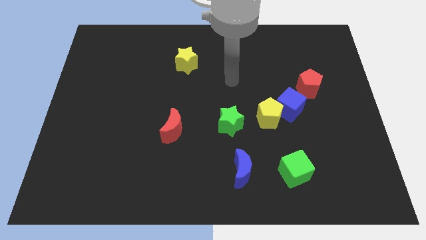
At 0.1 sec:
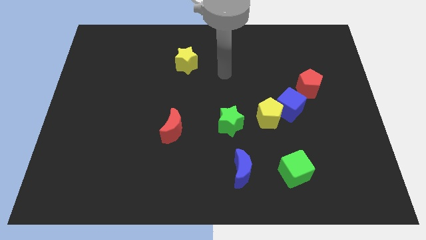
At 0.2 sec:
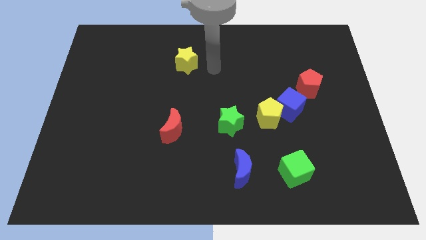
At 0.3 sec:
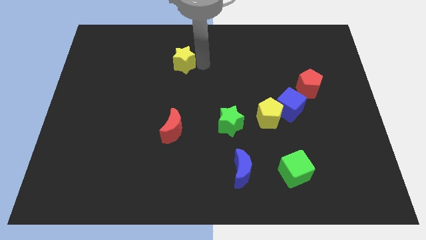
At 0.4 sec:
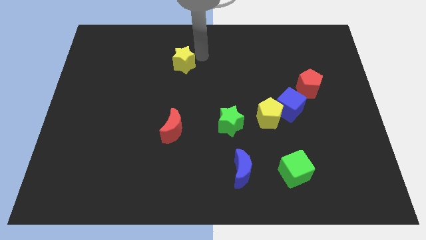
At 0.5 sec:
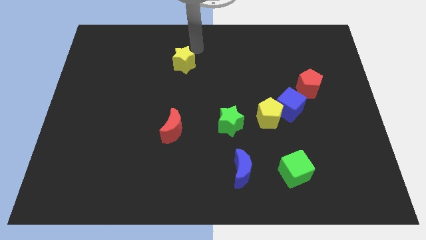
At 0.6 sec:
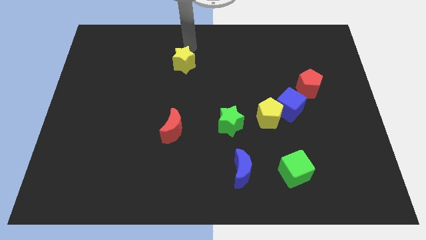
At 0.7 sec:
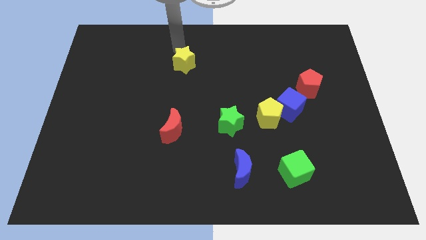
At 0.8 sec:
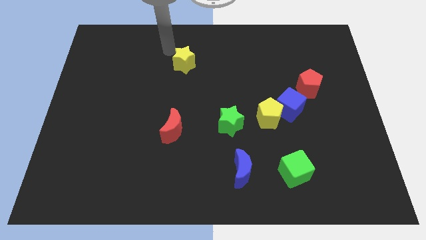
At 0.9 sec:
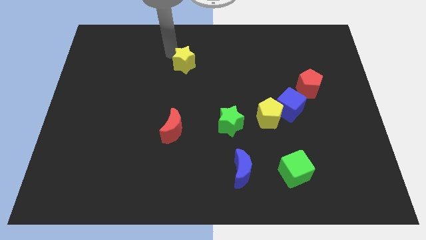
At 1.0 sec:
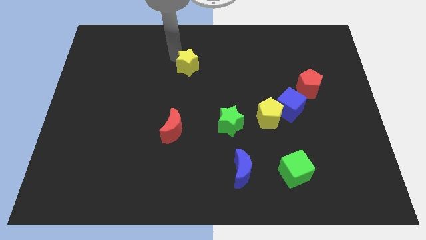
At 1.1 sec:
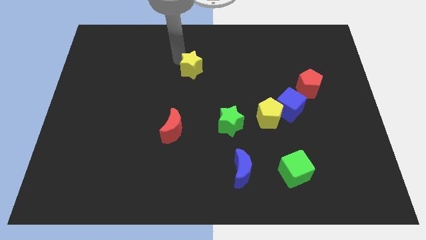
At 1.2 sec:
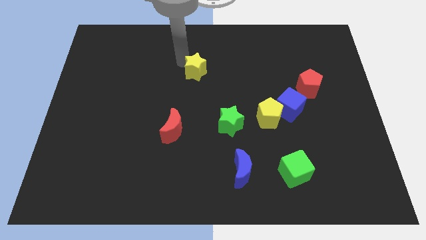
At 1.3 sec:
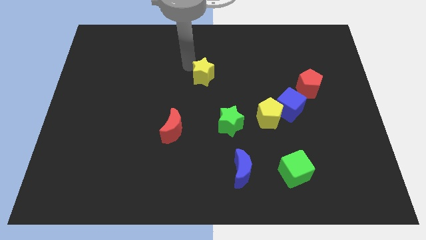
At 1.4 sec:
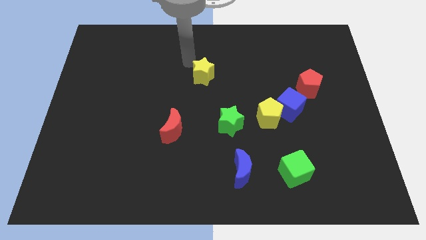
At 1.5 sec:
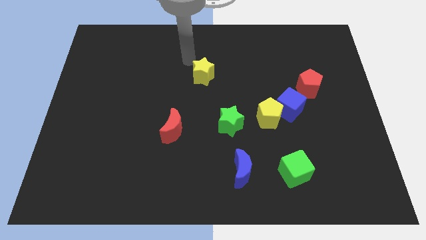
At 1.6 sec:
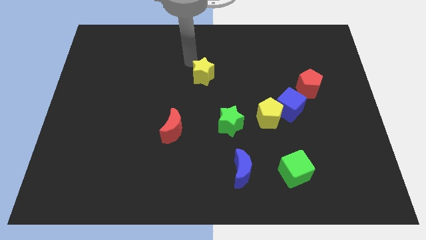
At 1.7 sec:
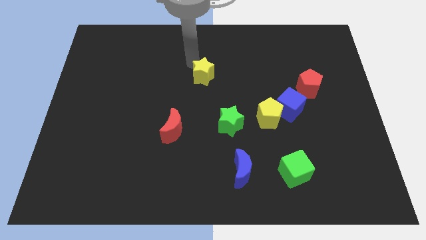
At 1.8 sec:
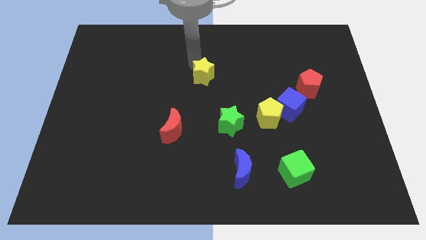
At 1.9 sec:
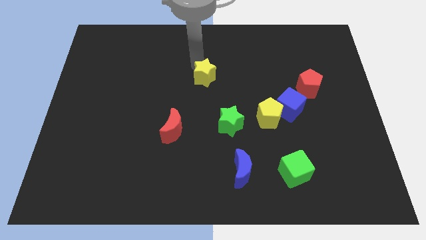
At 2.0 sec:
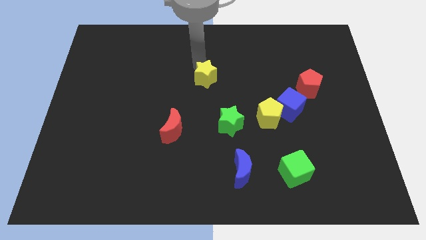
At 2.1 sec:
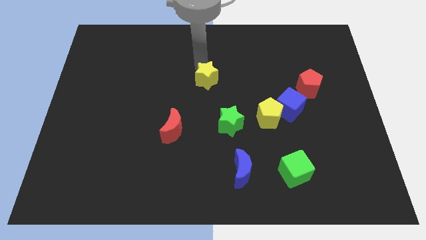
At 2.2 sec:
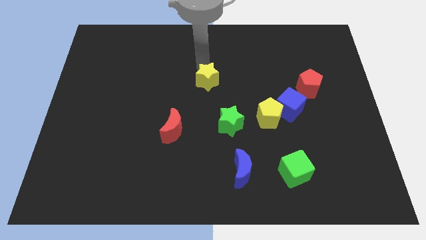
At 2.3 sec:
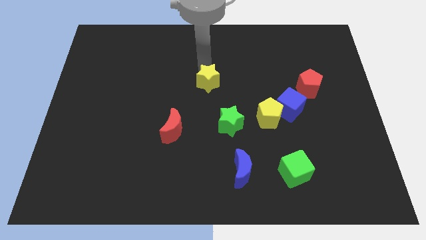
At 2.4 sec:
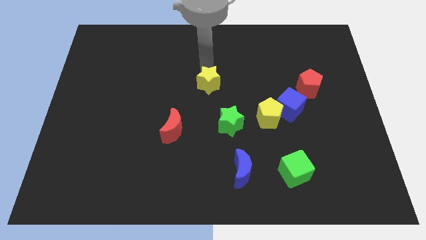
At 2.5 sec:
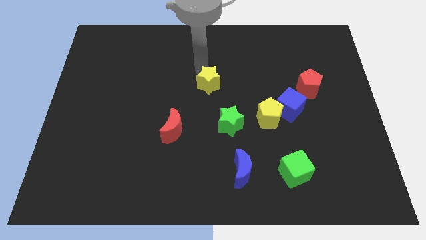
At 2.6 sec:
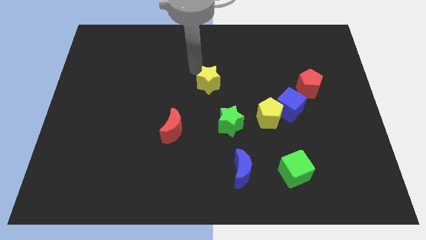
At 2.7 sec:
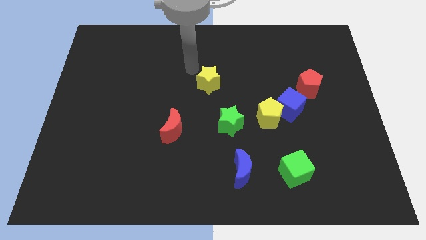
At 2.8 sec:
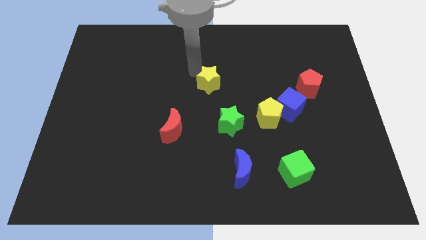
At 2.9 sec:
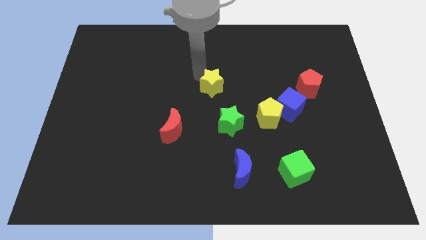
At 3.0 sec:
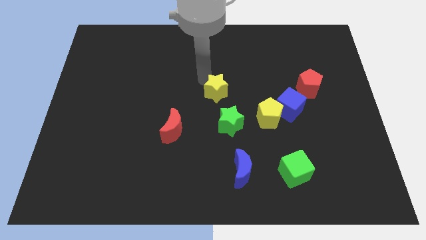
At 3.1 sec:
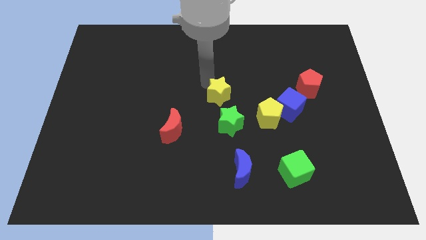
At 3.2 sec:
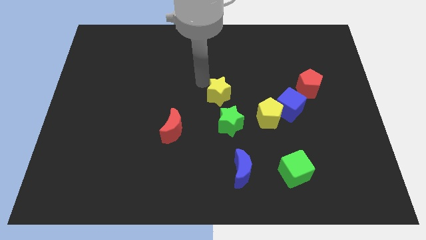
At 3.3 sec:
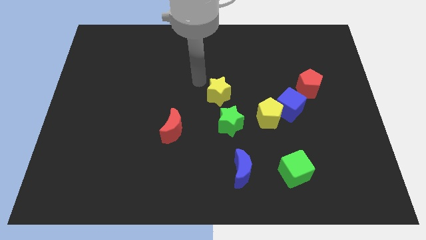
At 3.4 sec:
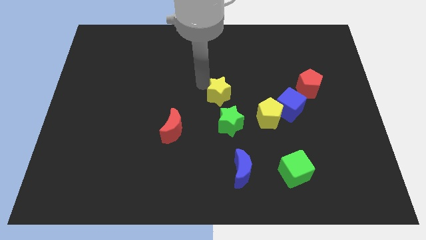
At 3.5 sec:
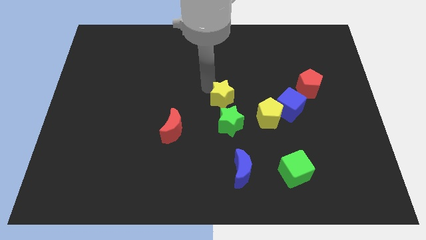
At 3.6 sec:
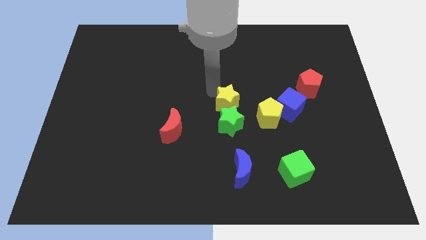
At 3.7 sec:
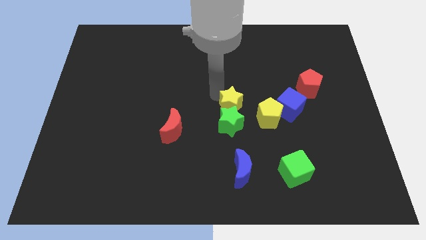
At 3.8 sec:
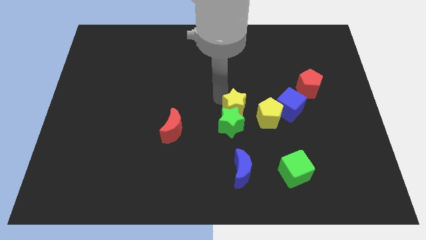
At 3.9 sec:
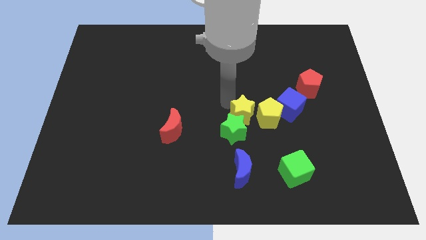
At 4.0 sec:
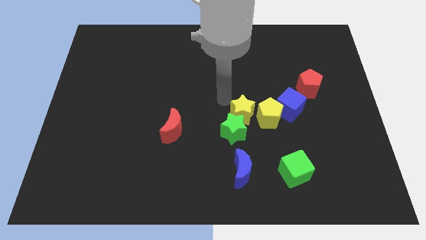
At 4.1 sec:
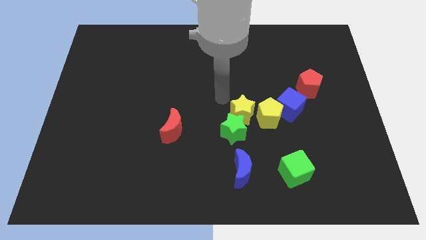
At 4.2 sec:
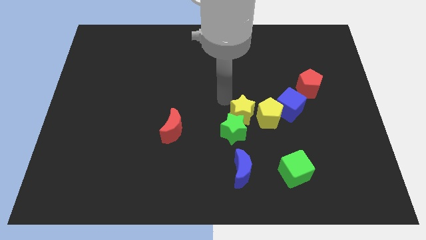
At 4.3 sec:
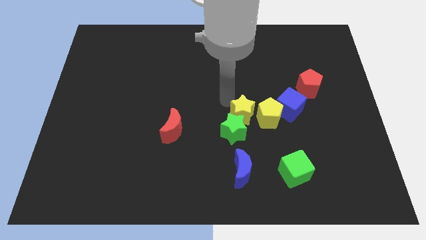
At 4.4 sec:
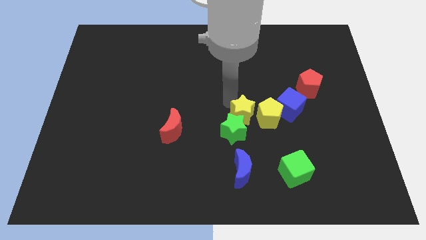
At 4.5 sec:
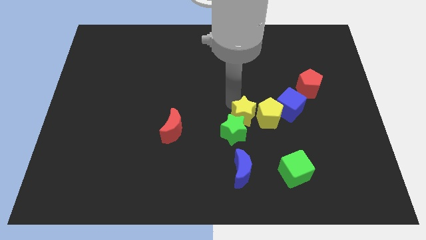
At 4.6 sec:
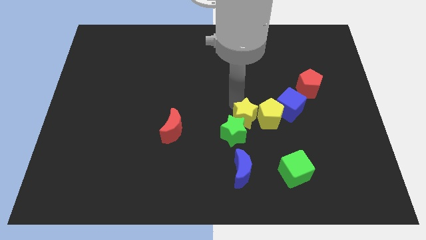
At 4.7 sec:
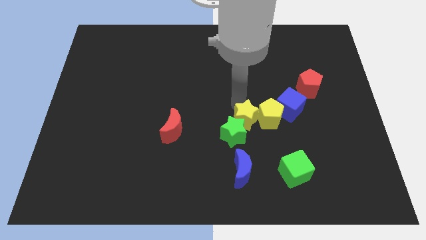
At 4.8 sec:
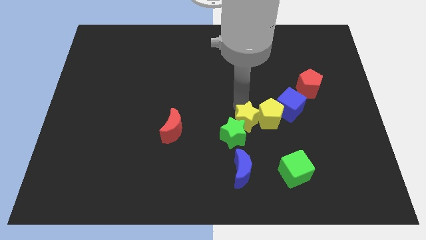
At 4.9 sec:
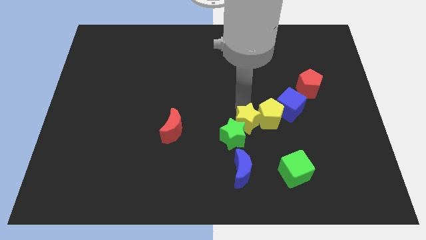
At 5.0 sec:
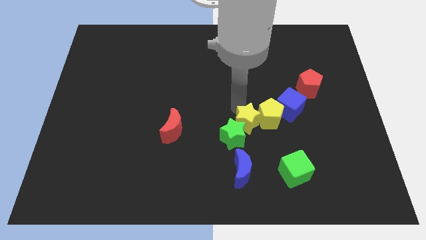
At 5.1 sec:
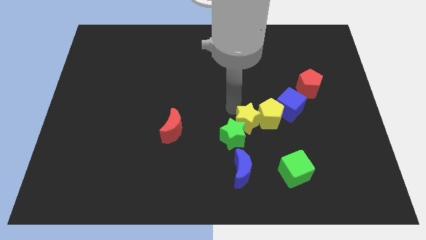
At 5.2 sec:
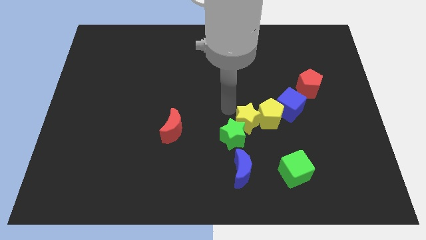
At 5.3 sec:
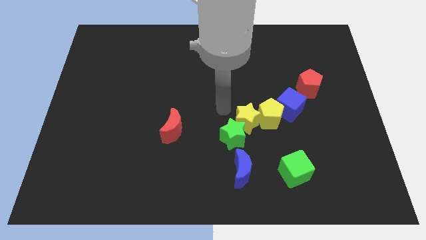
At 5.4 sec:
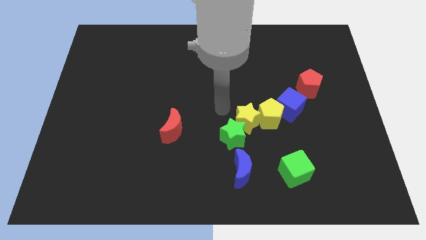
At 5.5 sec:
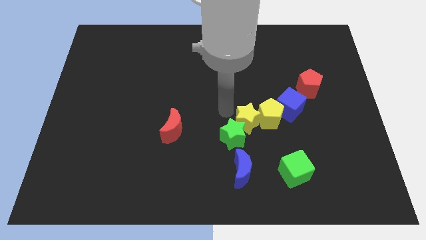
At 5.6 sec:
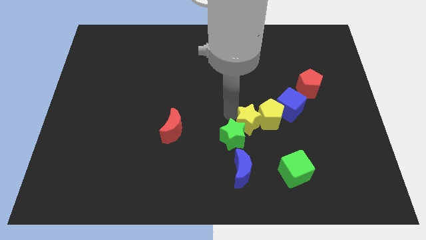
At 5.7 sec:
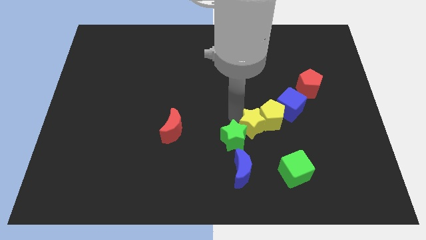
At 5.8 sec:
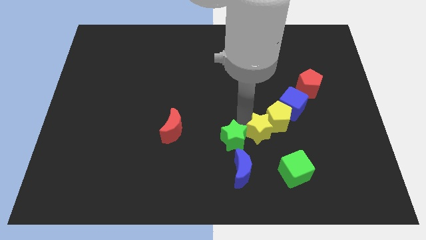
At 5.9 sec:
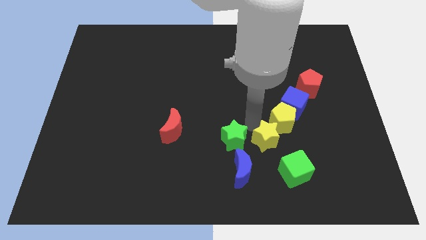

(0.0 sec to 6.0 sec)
slide the yellow star to the bottom side of the yellow pentagon

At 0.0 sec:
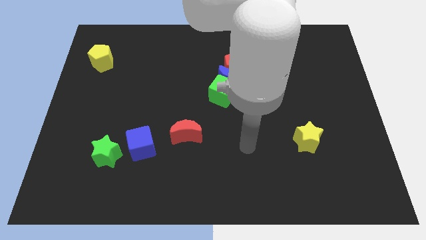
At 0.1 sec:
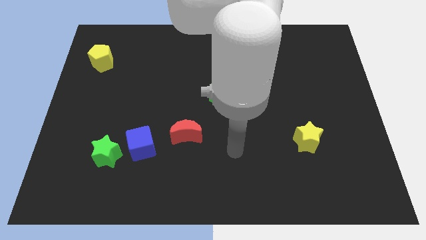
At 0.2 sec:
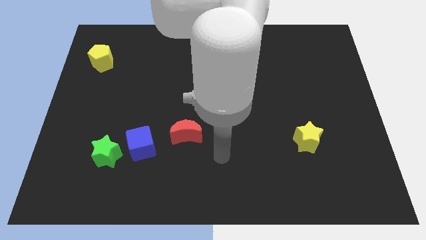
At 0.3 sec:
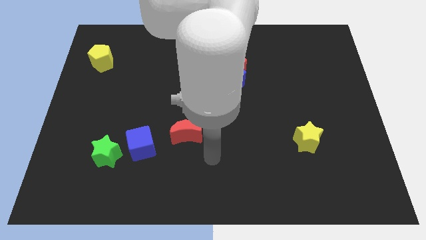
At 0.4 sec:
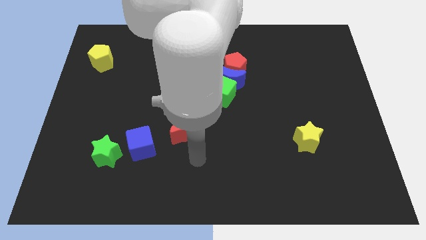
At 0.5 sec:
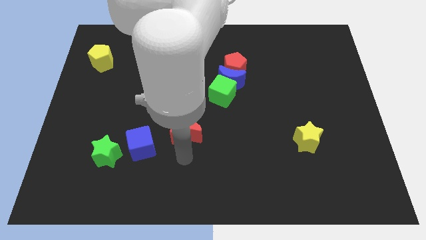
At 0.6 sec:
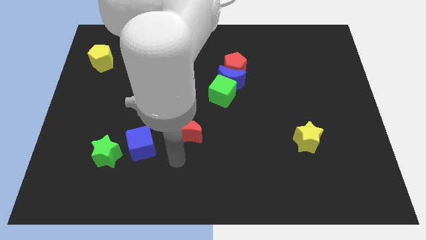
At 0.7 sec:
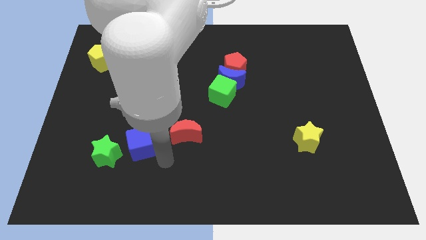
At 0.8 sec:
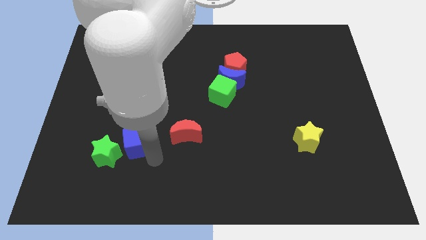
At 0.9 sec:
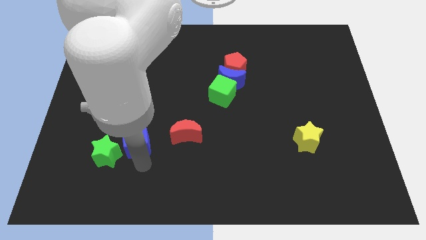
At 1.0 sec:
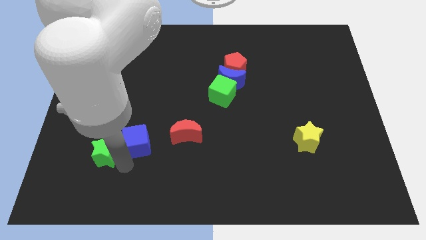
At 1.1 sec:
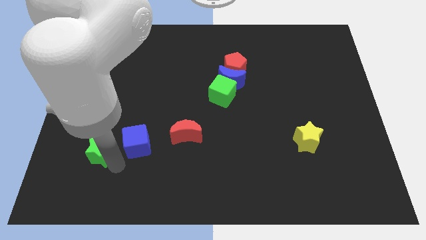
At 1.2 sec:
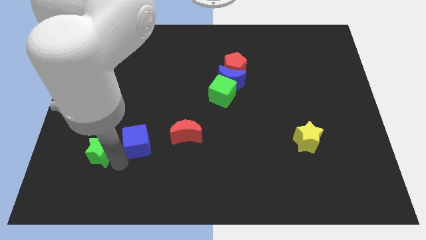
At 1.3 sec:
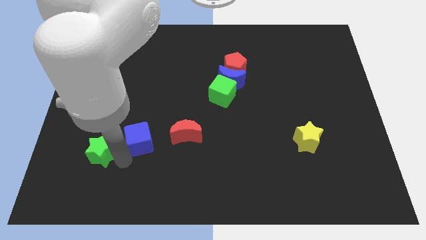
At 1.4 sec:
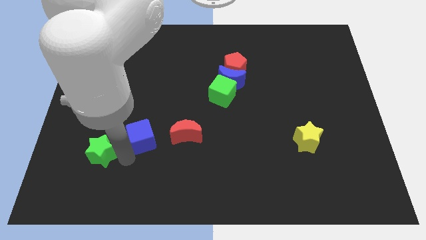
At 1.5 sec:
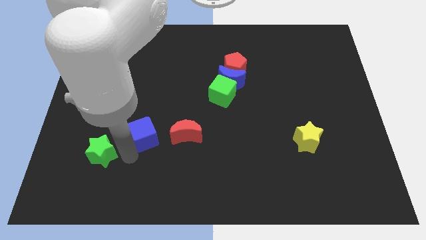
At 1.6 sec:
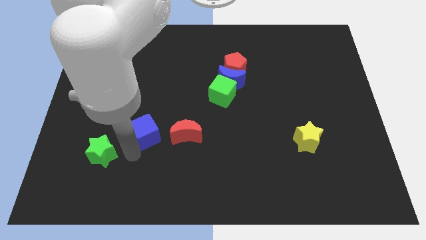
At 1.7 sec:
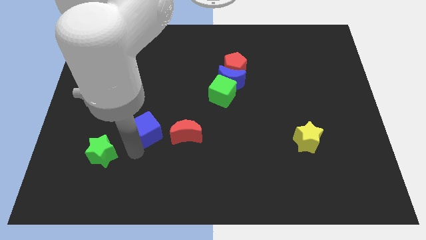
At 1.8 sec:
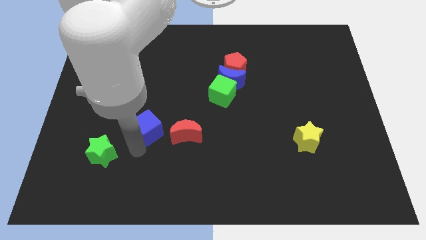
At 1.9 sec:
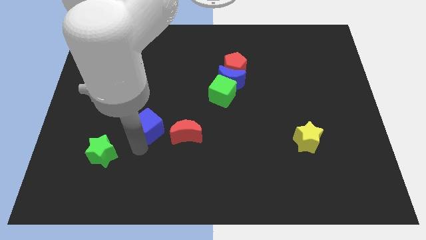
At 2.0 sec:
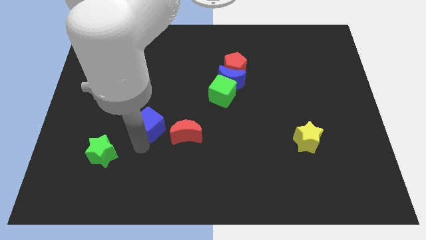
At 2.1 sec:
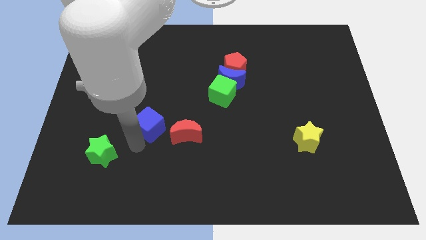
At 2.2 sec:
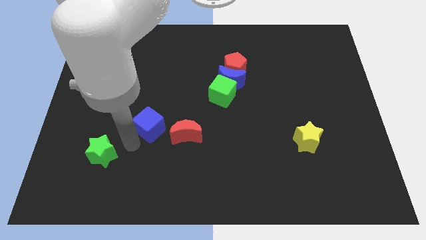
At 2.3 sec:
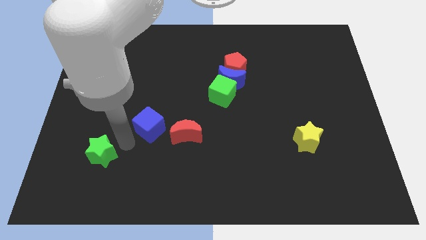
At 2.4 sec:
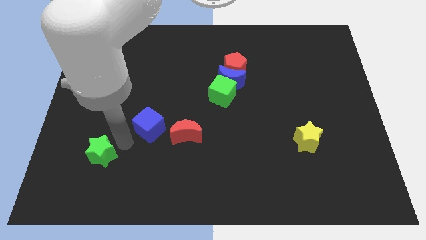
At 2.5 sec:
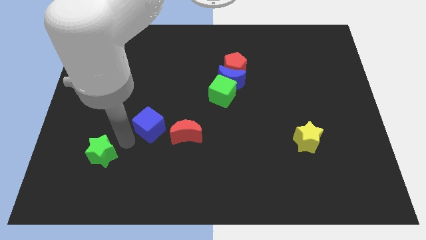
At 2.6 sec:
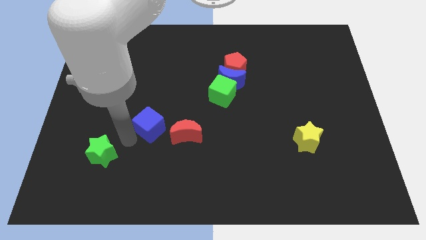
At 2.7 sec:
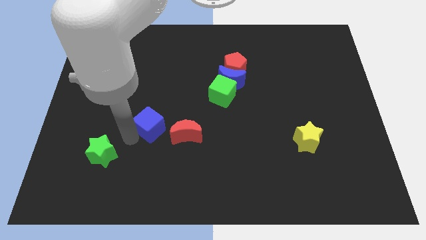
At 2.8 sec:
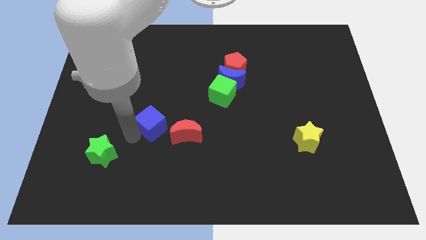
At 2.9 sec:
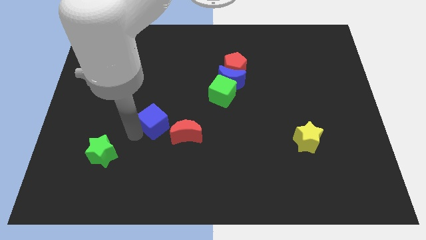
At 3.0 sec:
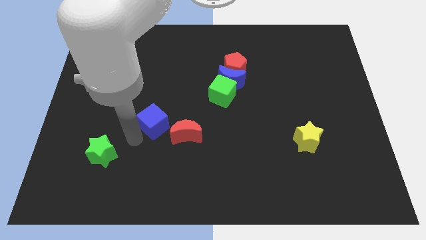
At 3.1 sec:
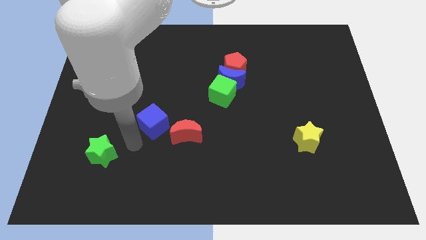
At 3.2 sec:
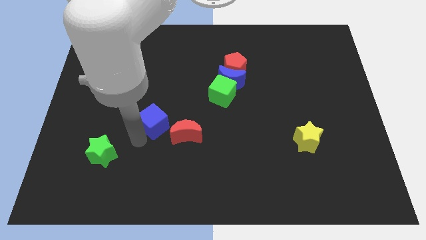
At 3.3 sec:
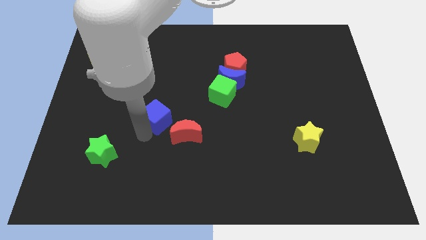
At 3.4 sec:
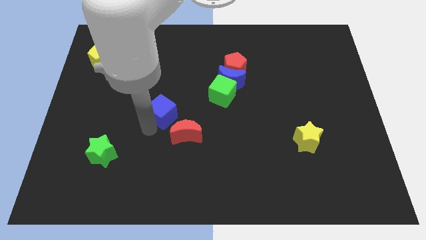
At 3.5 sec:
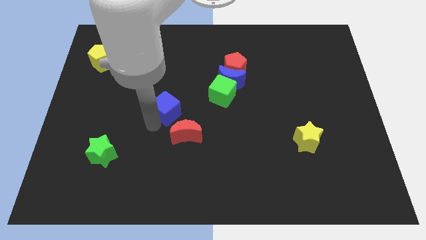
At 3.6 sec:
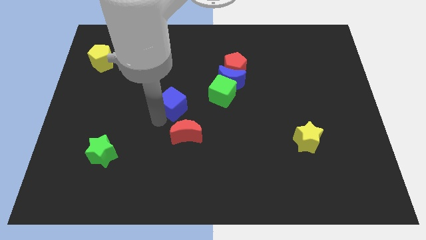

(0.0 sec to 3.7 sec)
put the blue cube to the left side of the green cube
